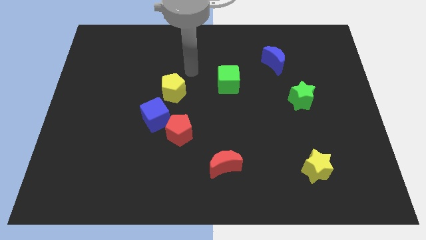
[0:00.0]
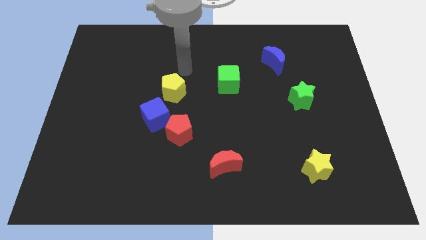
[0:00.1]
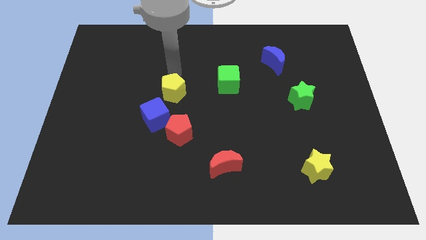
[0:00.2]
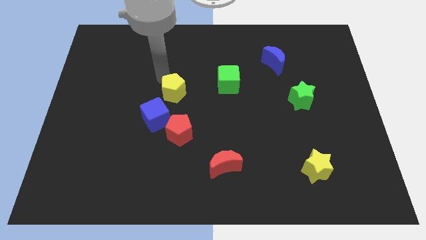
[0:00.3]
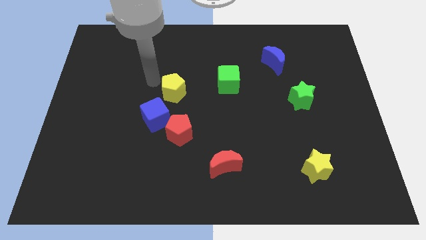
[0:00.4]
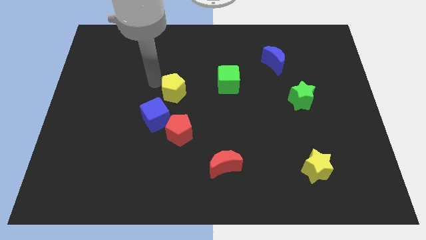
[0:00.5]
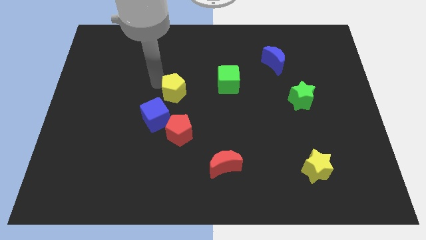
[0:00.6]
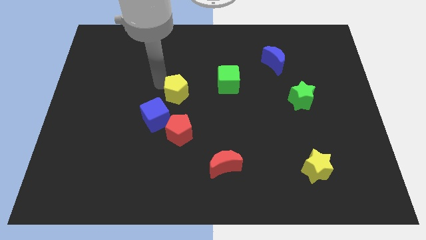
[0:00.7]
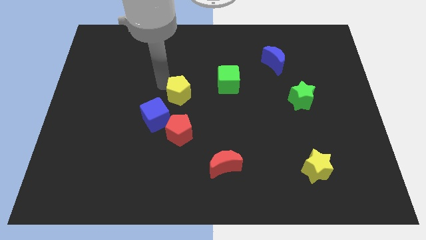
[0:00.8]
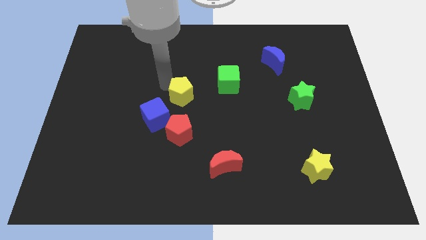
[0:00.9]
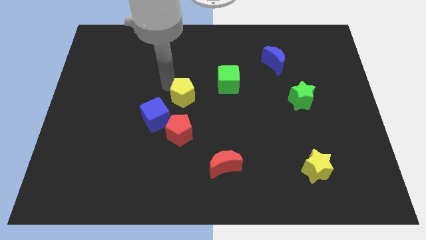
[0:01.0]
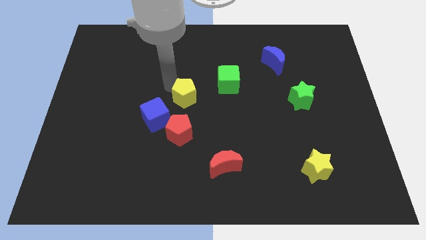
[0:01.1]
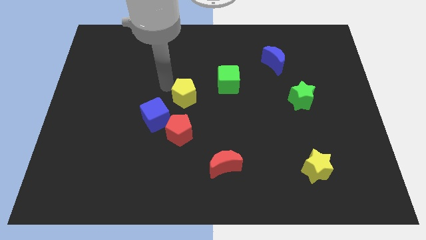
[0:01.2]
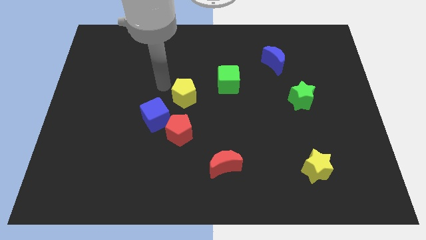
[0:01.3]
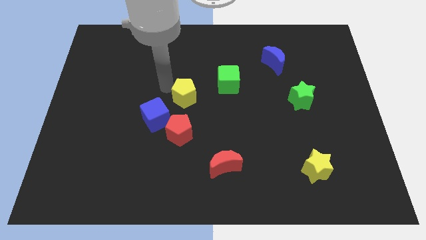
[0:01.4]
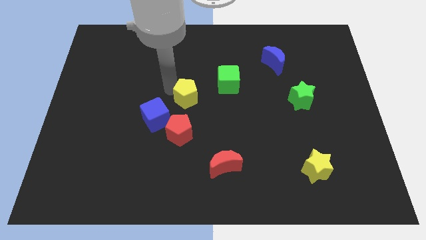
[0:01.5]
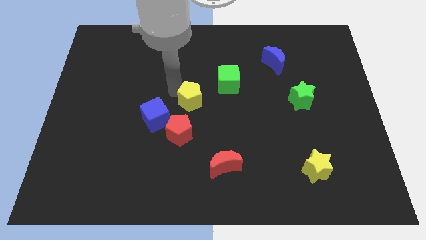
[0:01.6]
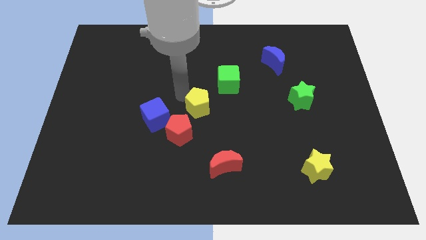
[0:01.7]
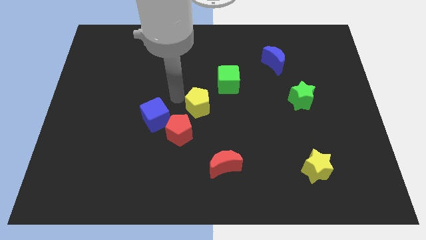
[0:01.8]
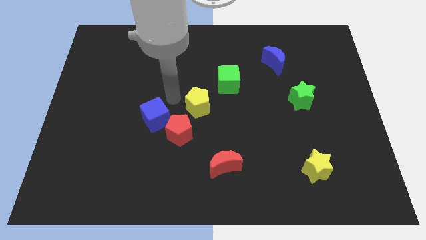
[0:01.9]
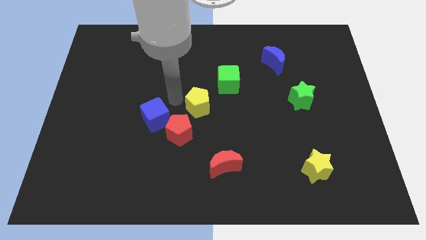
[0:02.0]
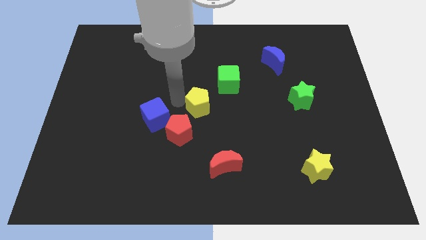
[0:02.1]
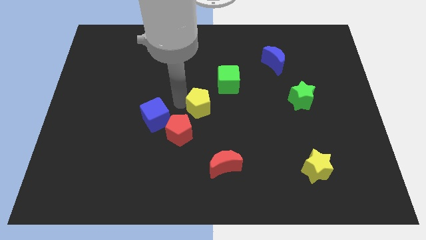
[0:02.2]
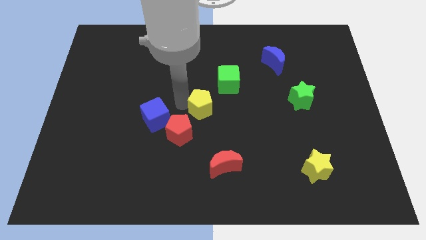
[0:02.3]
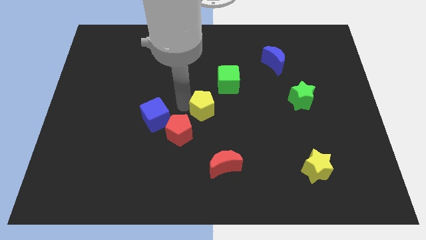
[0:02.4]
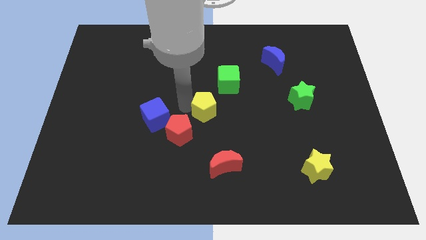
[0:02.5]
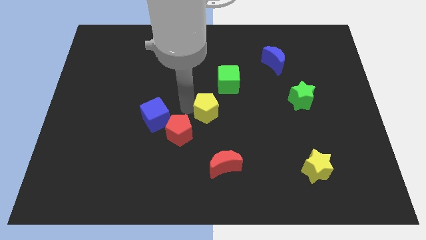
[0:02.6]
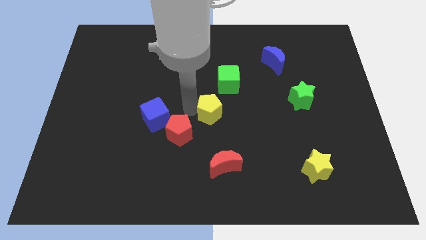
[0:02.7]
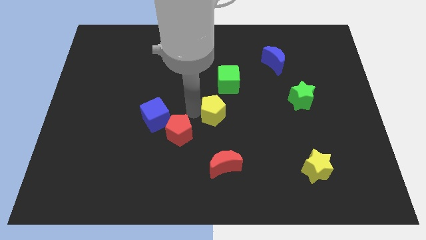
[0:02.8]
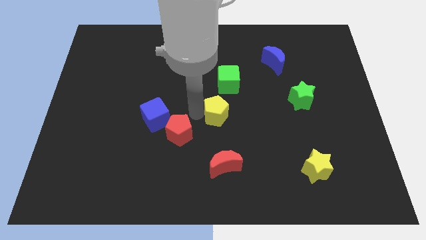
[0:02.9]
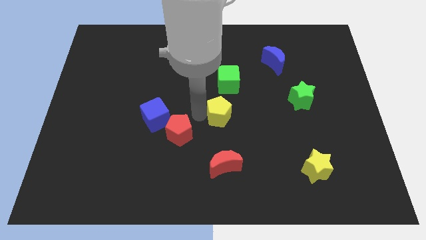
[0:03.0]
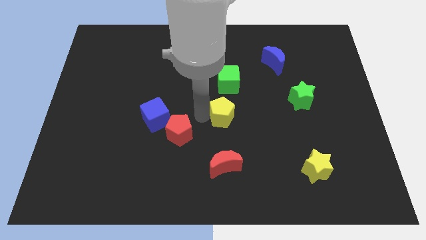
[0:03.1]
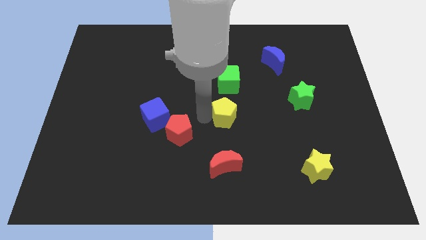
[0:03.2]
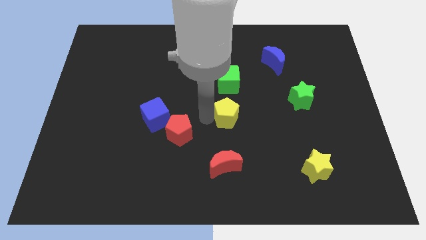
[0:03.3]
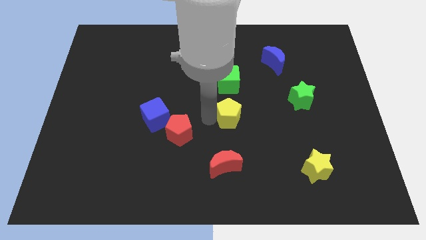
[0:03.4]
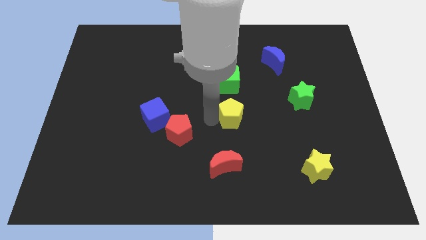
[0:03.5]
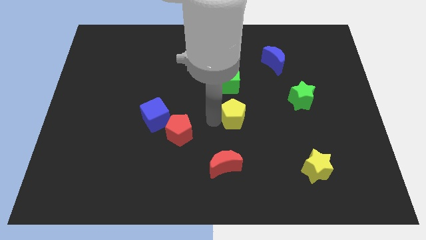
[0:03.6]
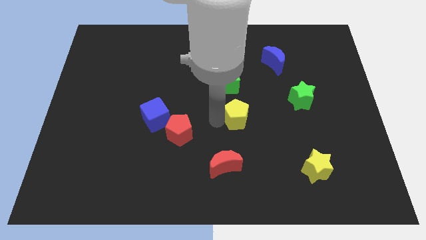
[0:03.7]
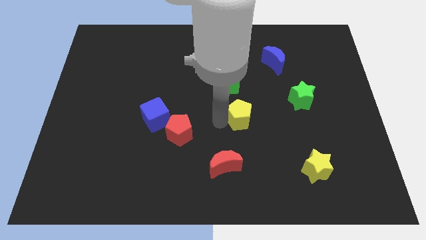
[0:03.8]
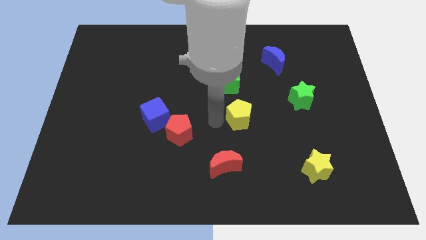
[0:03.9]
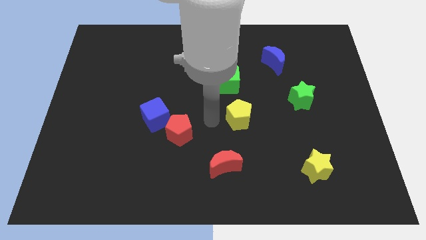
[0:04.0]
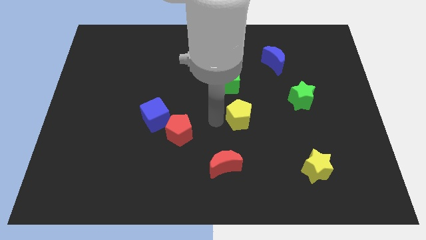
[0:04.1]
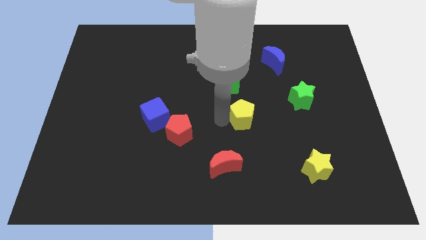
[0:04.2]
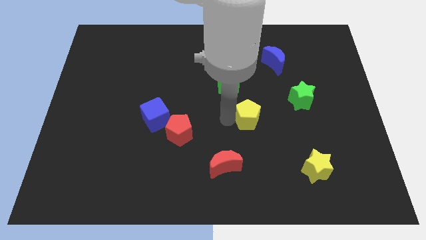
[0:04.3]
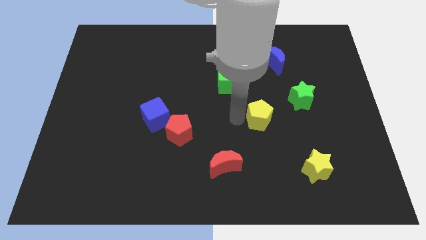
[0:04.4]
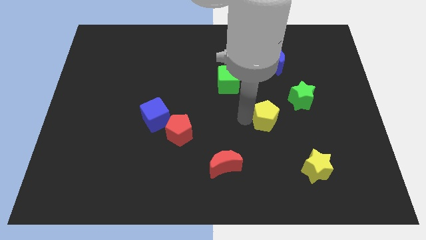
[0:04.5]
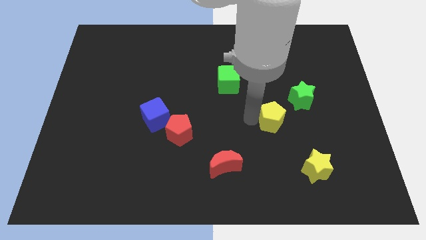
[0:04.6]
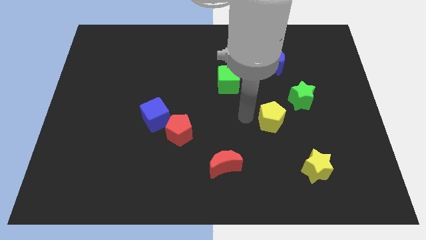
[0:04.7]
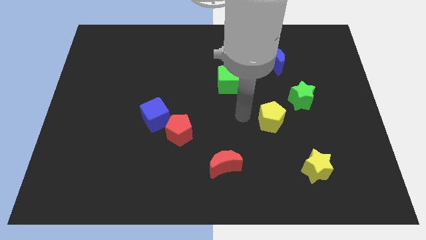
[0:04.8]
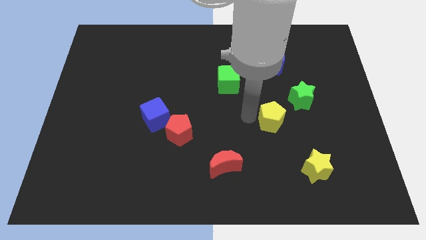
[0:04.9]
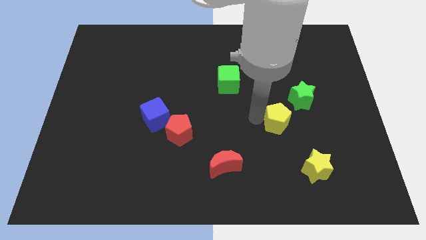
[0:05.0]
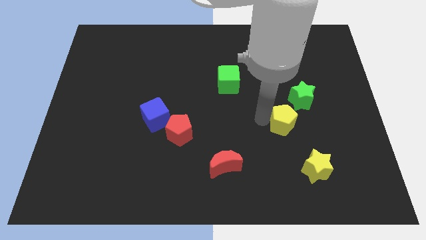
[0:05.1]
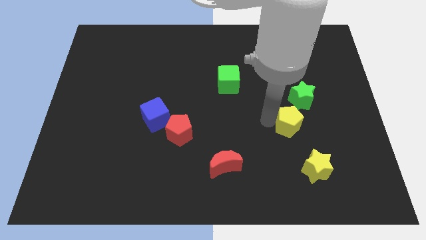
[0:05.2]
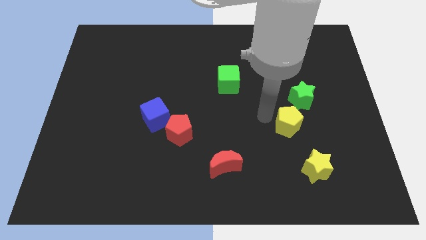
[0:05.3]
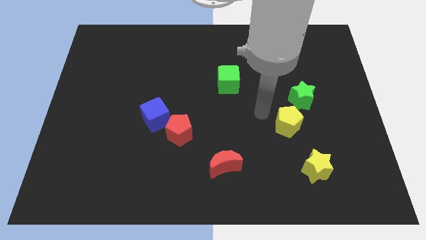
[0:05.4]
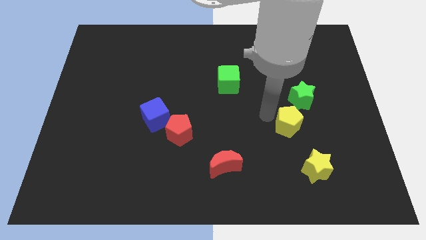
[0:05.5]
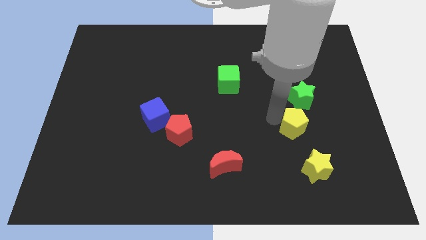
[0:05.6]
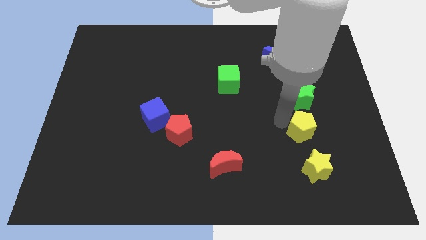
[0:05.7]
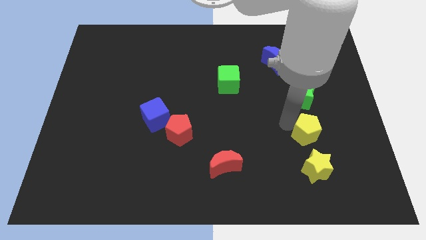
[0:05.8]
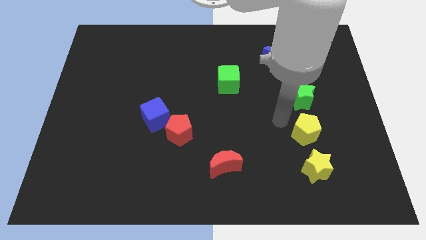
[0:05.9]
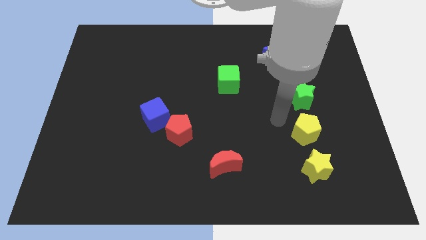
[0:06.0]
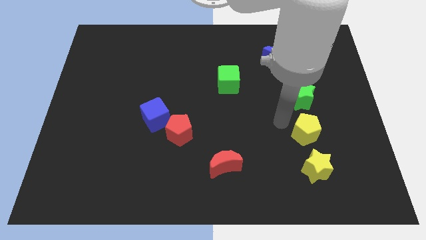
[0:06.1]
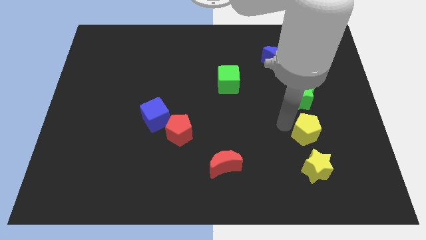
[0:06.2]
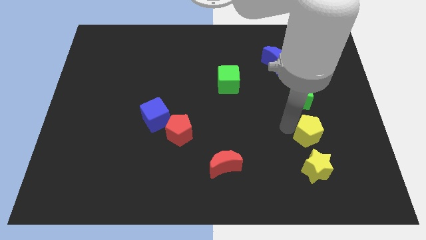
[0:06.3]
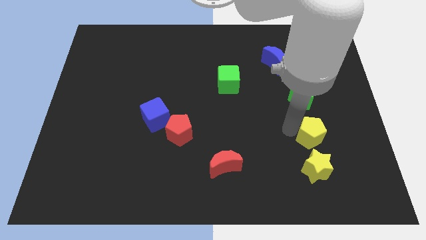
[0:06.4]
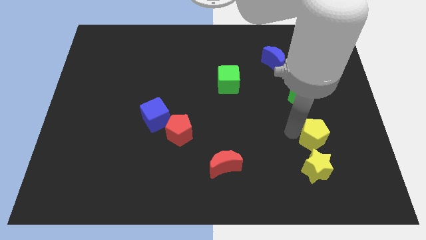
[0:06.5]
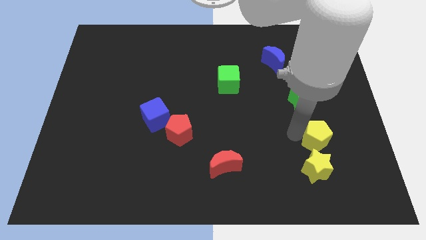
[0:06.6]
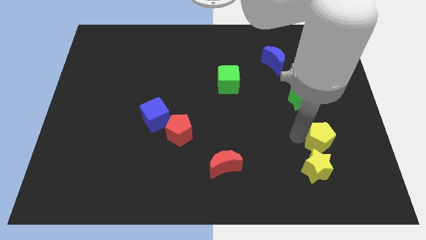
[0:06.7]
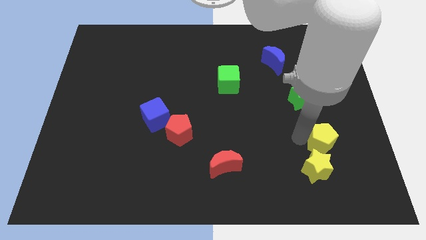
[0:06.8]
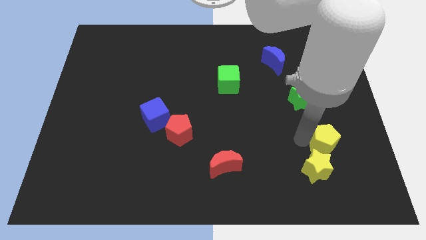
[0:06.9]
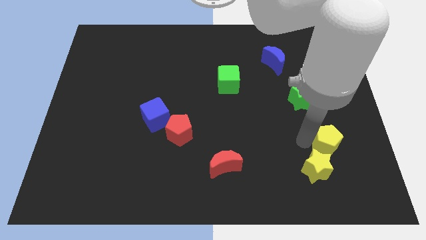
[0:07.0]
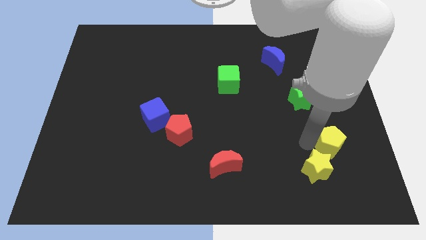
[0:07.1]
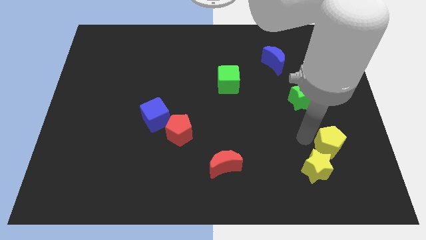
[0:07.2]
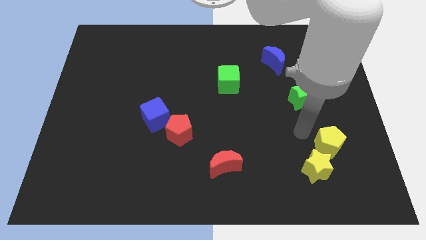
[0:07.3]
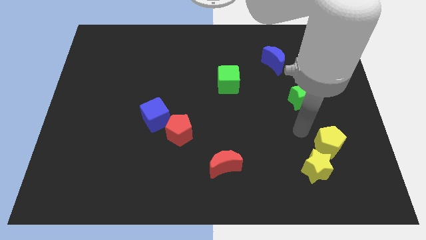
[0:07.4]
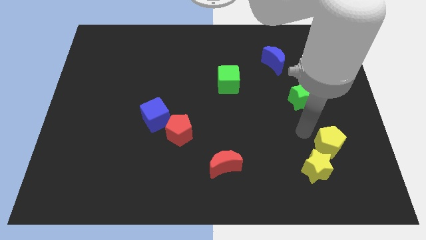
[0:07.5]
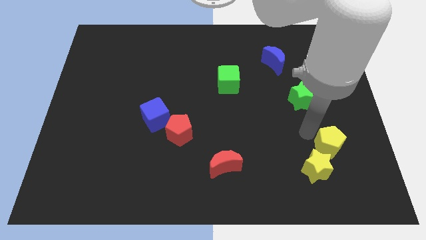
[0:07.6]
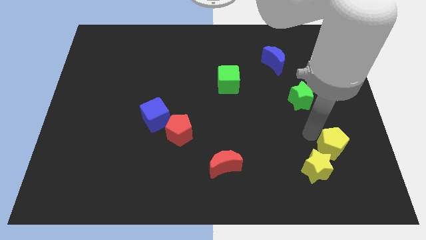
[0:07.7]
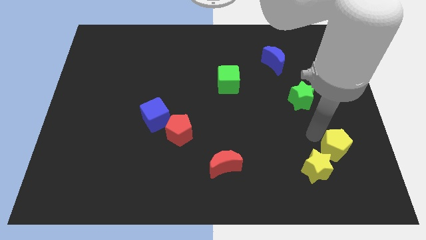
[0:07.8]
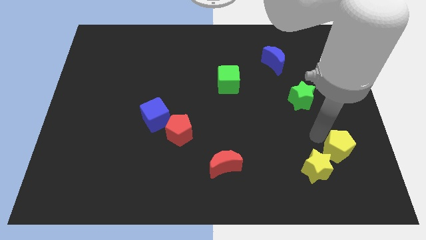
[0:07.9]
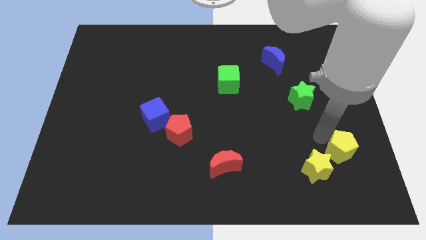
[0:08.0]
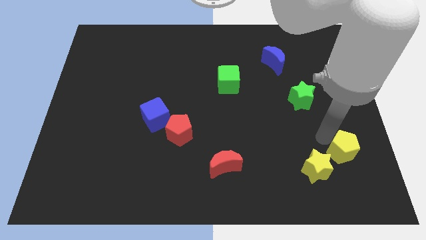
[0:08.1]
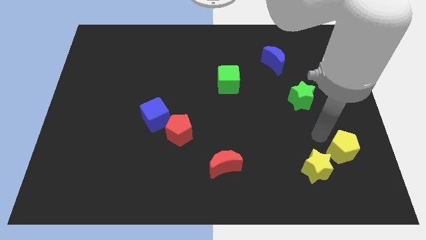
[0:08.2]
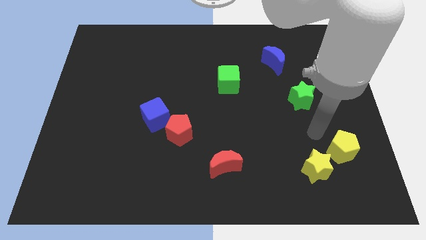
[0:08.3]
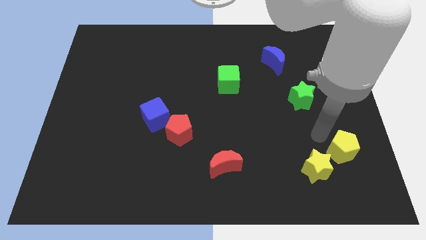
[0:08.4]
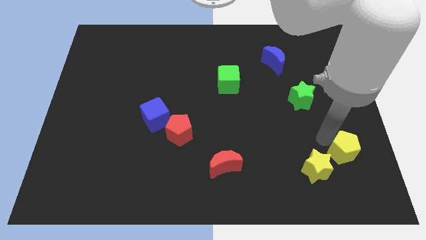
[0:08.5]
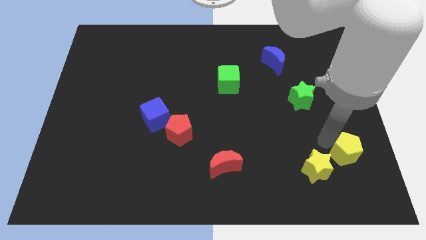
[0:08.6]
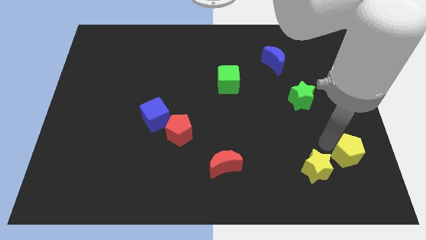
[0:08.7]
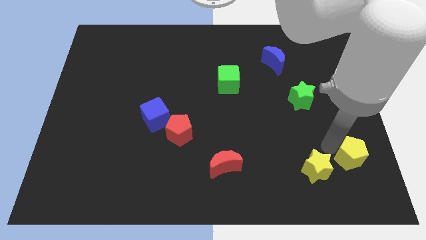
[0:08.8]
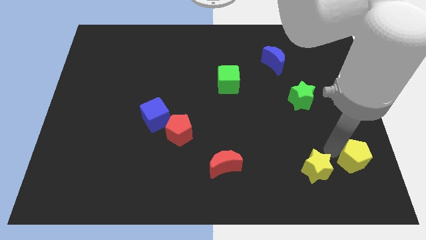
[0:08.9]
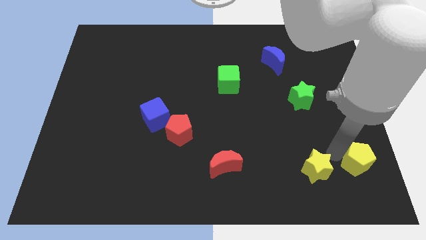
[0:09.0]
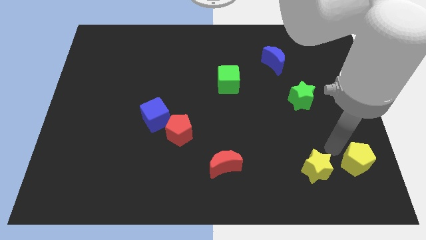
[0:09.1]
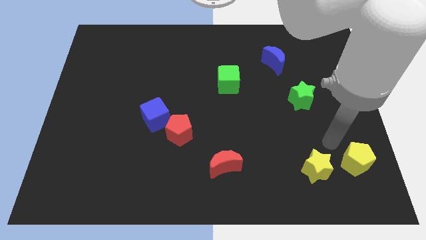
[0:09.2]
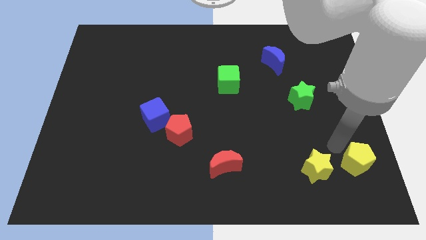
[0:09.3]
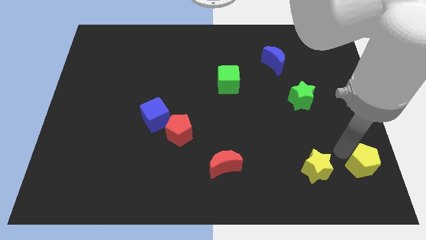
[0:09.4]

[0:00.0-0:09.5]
push the yellow pentagon to the bottom right of the board
